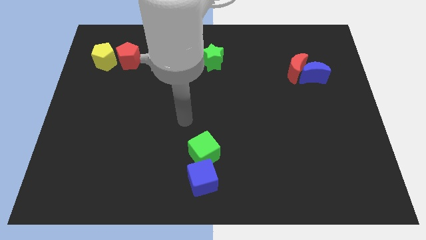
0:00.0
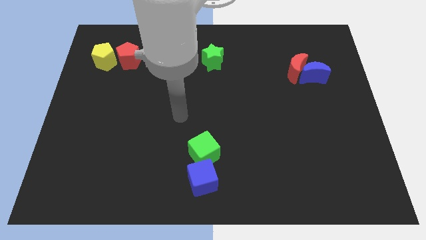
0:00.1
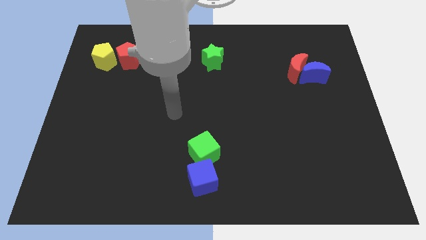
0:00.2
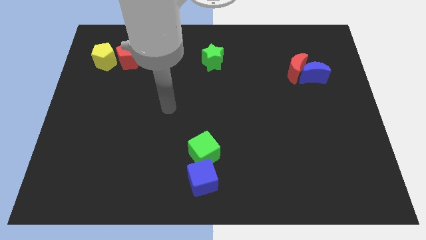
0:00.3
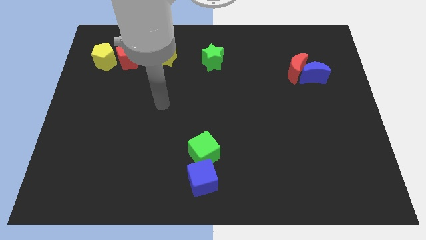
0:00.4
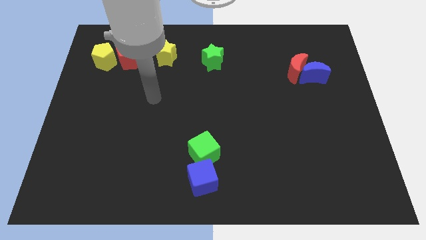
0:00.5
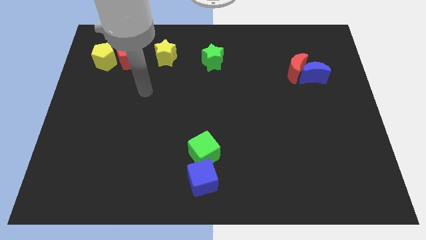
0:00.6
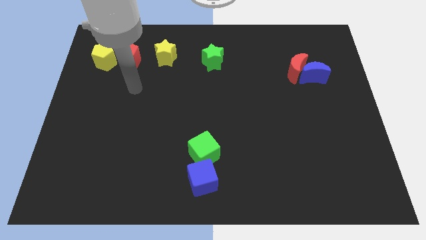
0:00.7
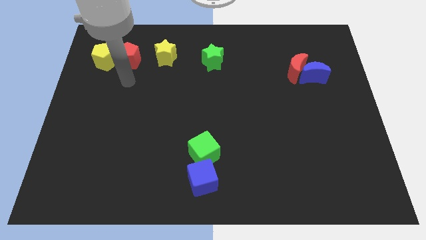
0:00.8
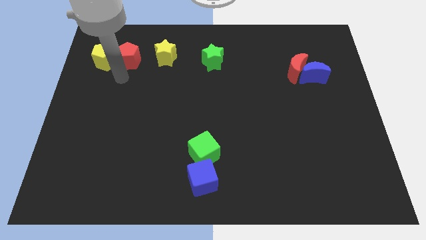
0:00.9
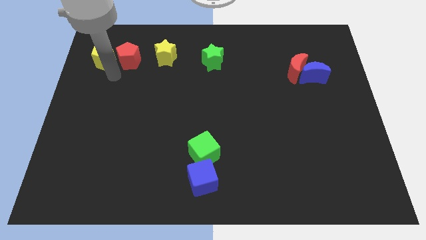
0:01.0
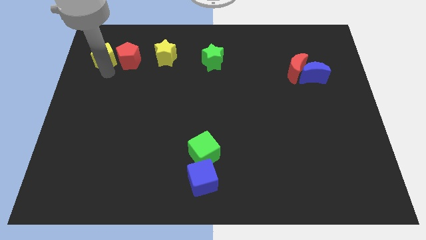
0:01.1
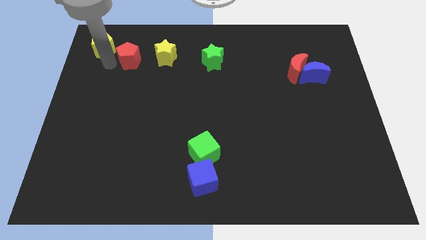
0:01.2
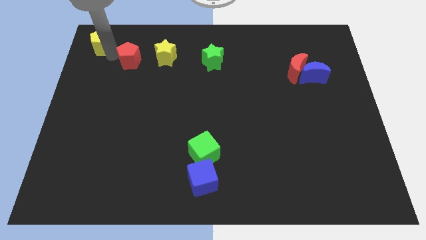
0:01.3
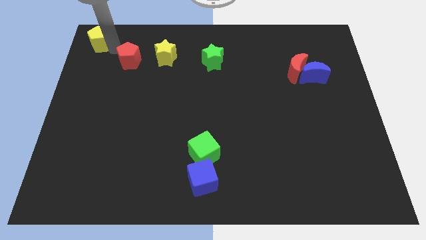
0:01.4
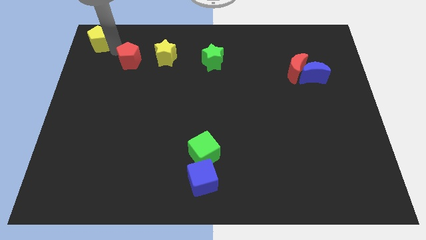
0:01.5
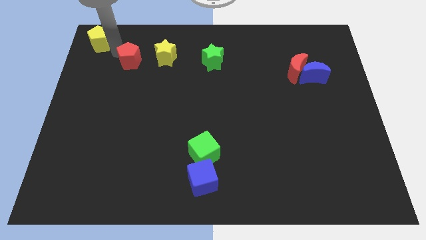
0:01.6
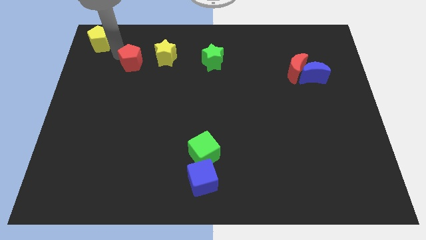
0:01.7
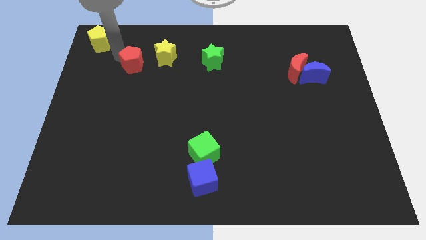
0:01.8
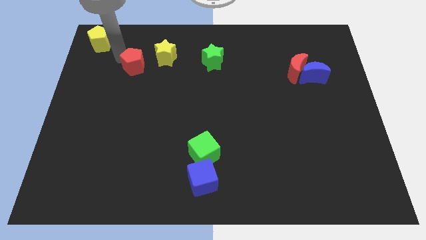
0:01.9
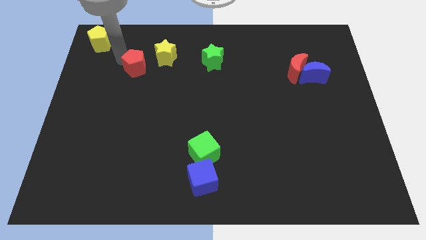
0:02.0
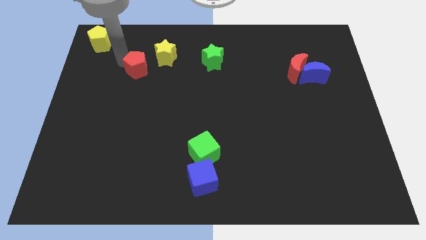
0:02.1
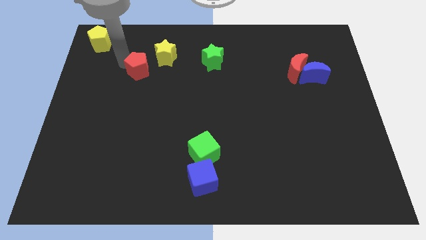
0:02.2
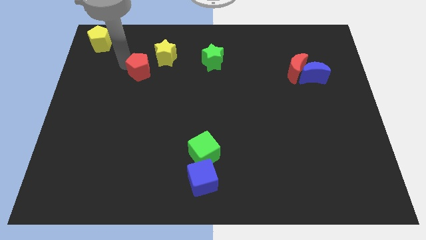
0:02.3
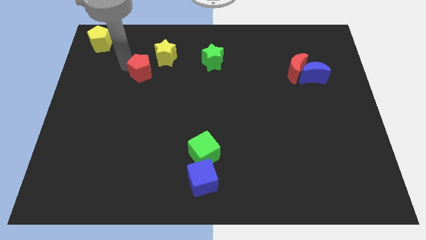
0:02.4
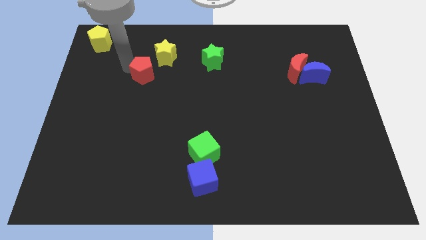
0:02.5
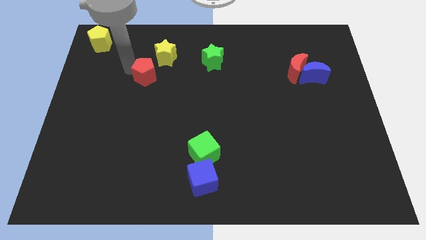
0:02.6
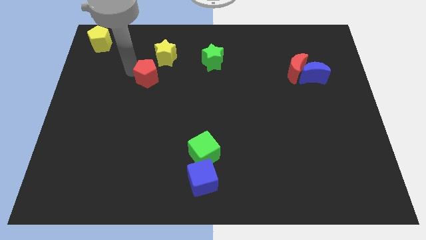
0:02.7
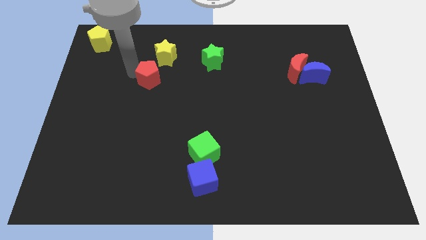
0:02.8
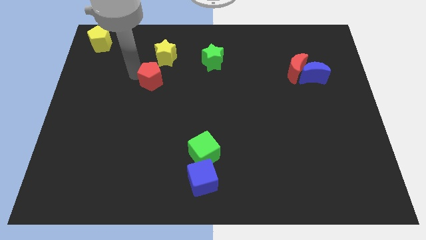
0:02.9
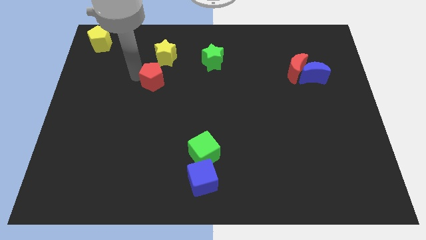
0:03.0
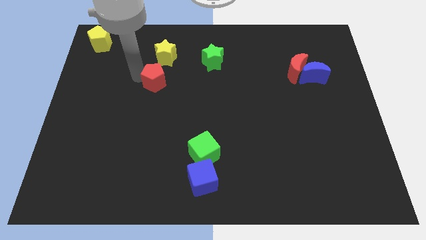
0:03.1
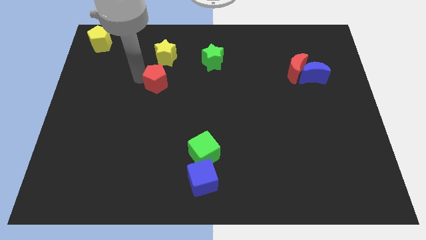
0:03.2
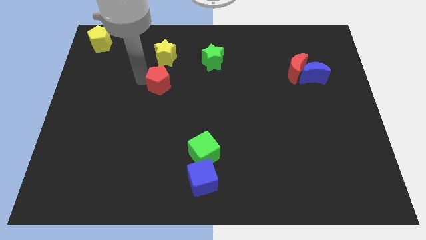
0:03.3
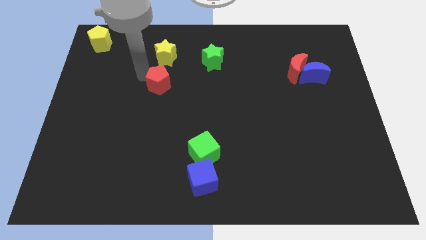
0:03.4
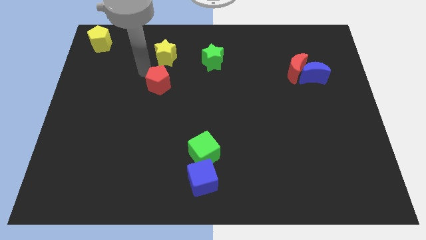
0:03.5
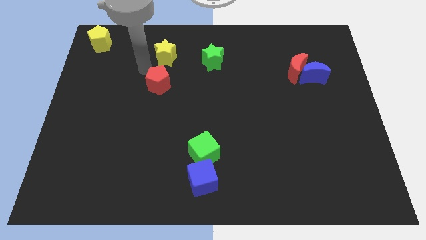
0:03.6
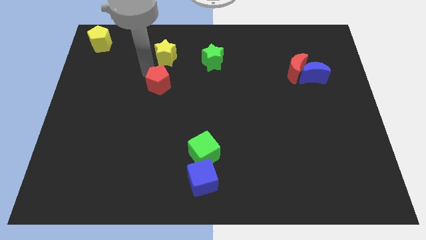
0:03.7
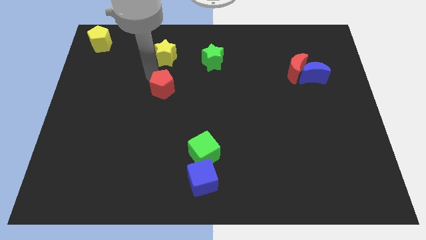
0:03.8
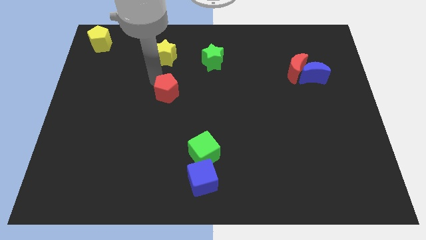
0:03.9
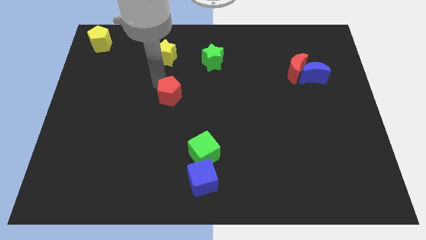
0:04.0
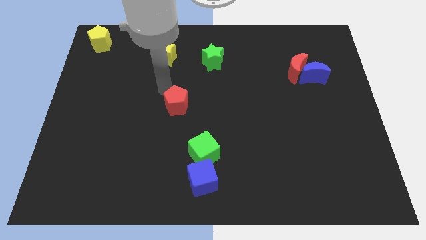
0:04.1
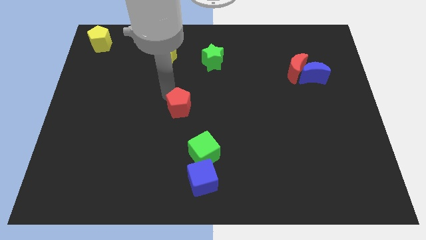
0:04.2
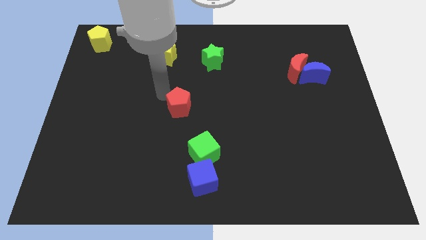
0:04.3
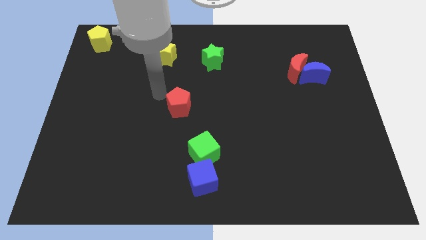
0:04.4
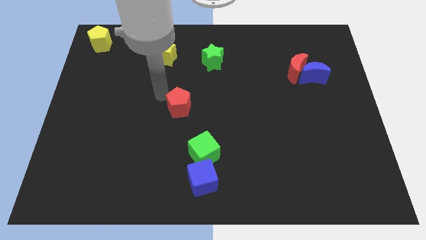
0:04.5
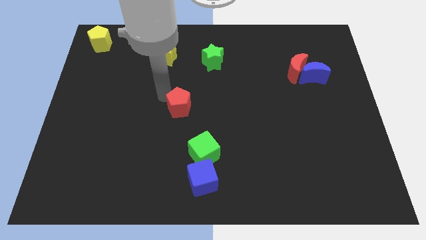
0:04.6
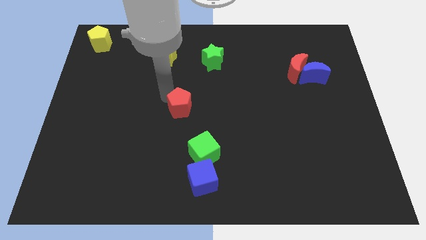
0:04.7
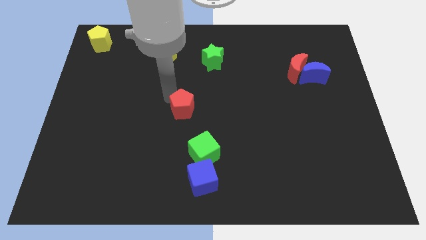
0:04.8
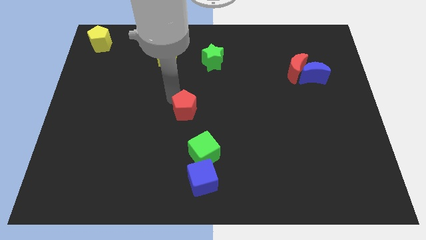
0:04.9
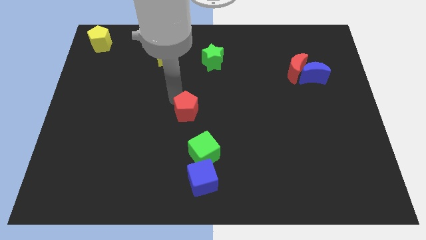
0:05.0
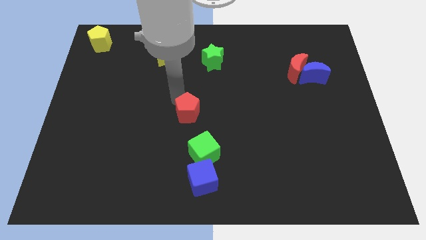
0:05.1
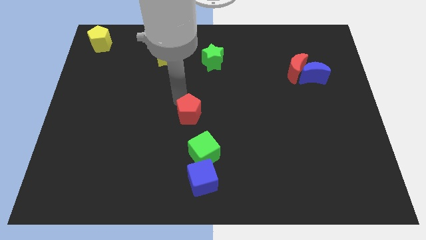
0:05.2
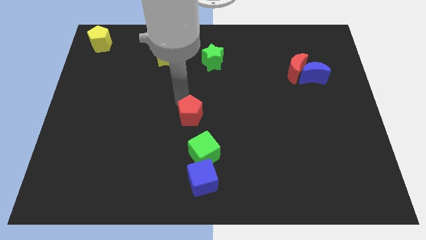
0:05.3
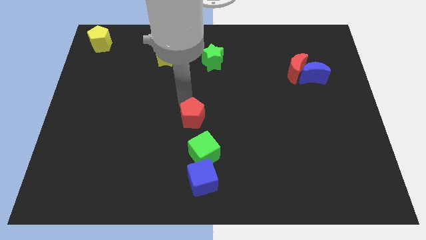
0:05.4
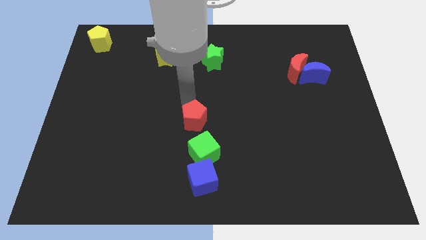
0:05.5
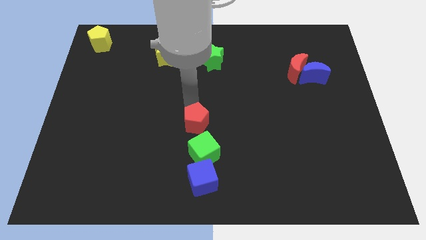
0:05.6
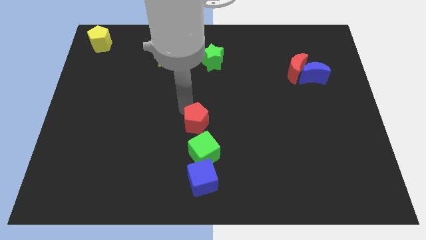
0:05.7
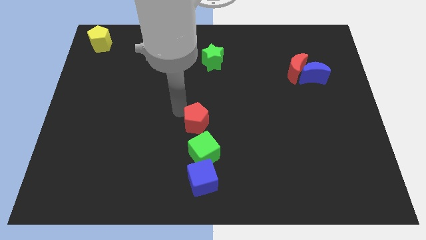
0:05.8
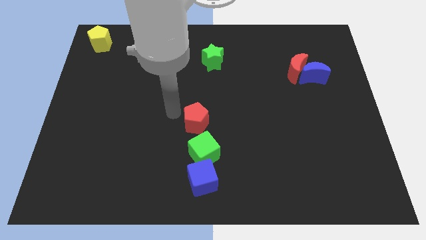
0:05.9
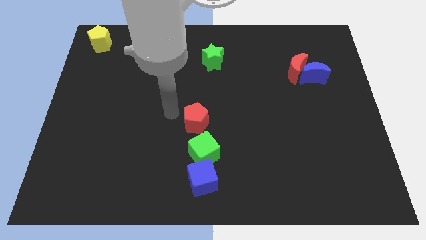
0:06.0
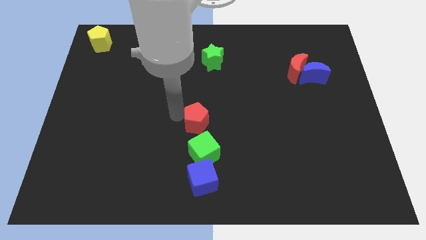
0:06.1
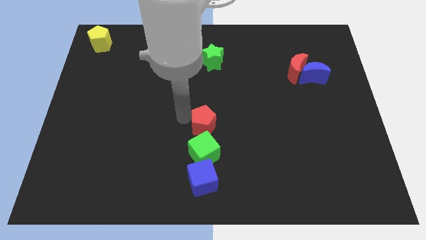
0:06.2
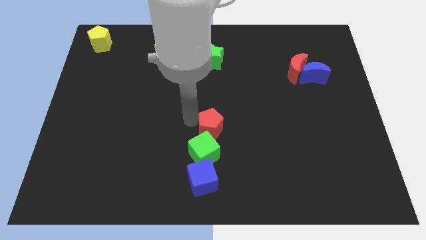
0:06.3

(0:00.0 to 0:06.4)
slide the red pentagon diagonally up and to the right of the green cube

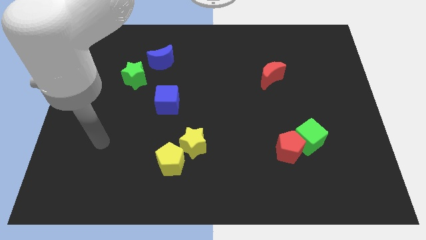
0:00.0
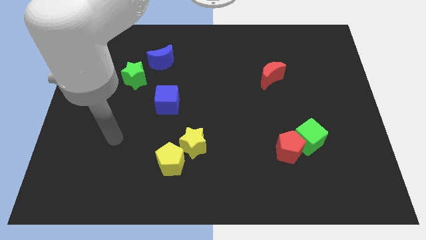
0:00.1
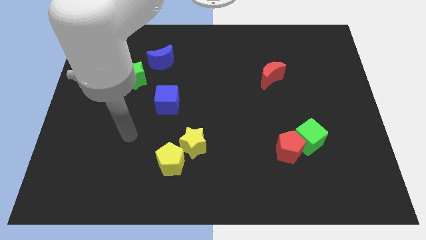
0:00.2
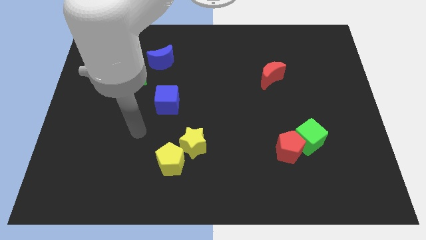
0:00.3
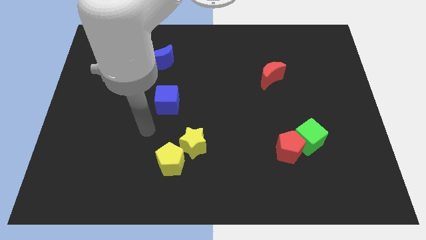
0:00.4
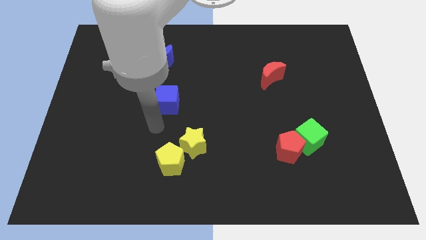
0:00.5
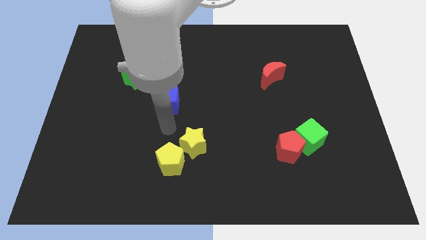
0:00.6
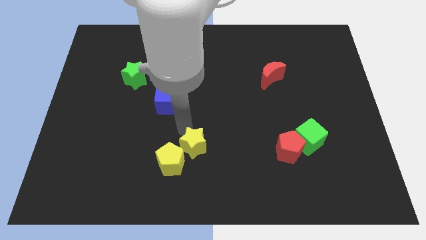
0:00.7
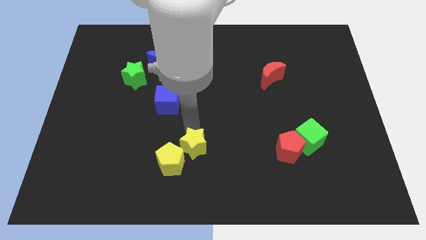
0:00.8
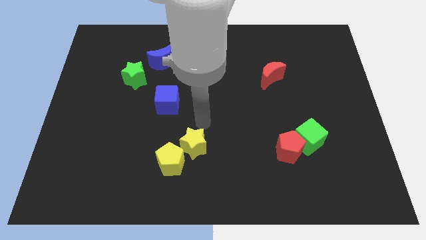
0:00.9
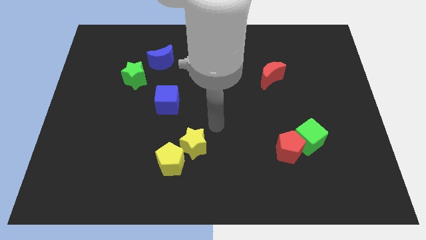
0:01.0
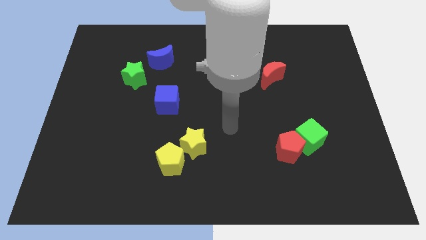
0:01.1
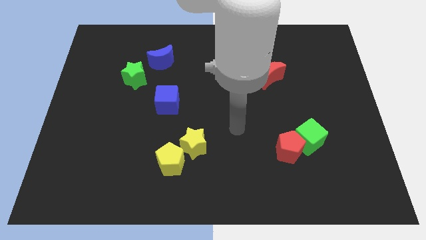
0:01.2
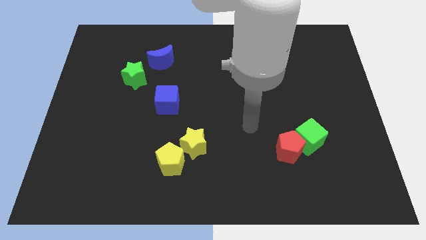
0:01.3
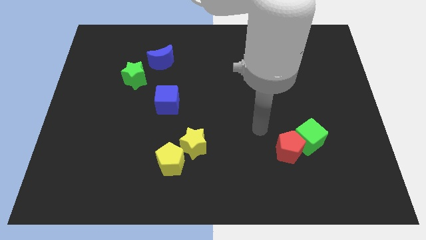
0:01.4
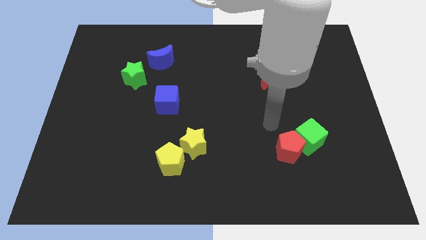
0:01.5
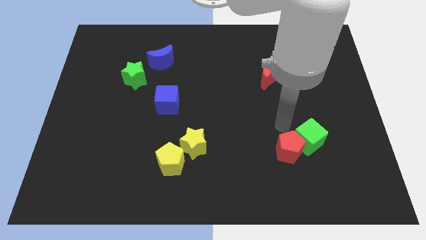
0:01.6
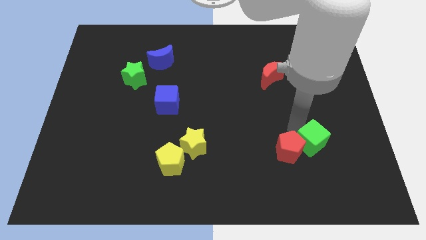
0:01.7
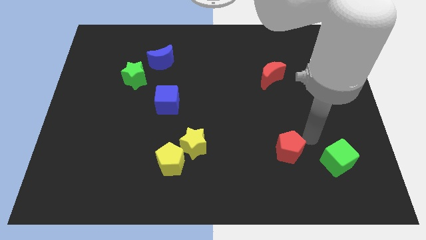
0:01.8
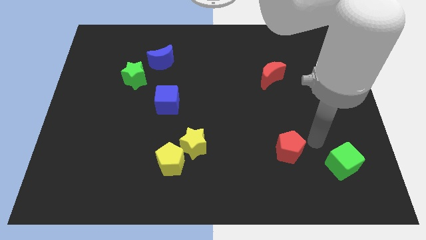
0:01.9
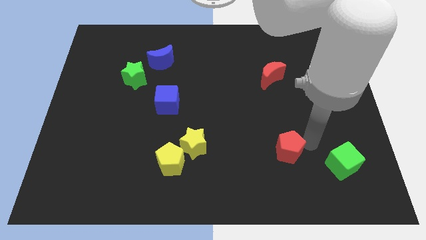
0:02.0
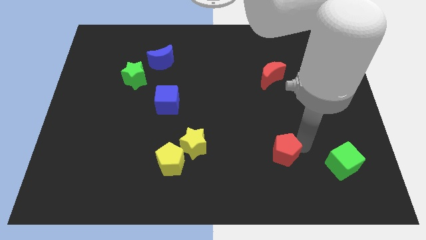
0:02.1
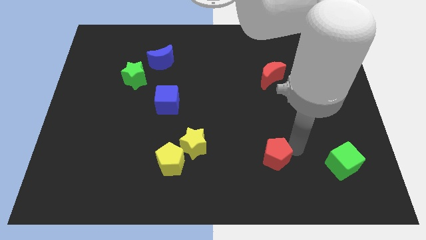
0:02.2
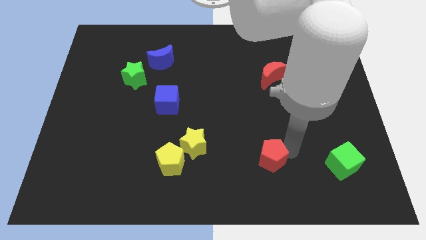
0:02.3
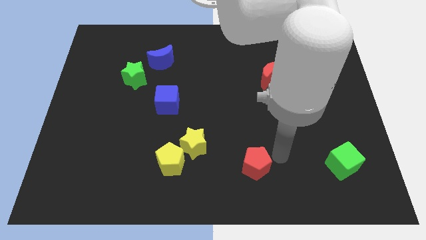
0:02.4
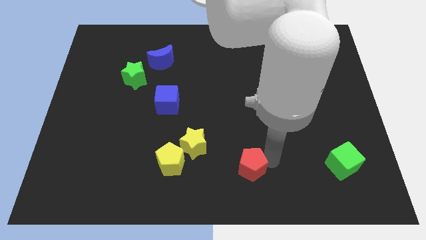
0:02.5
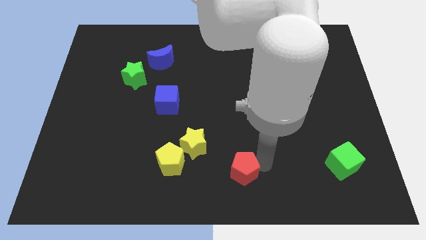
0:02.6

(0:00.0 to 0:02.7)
move the red pentagon diagonally down and to the right of the yellow star
